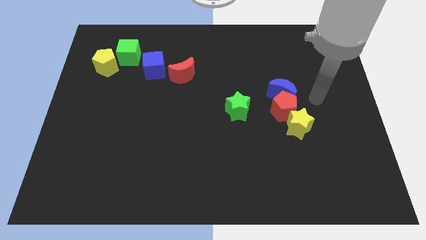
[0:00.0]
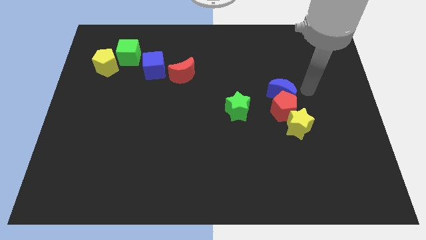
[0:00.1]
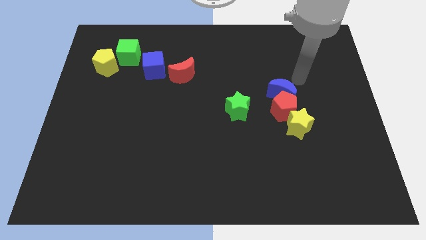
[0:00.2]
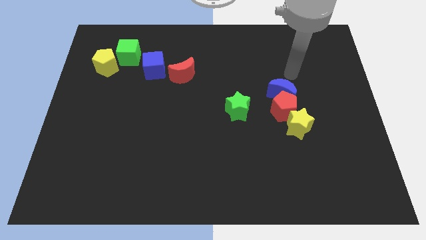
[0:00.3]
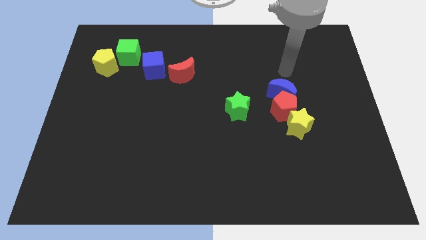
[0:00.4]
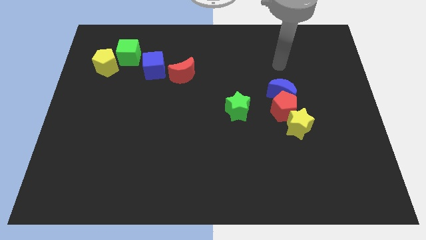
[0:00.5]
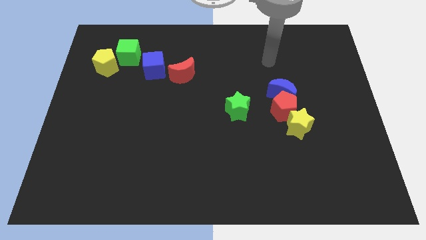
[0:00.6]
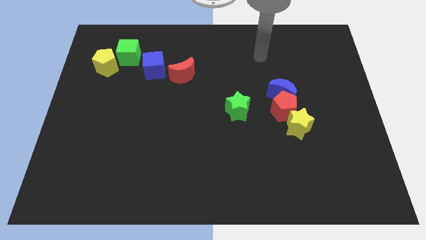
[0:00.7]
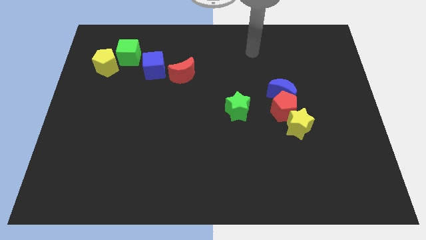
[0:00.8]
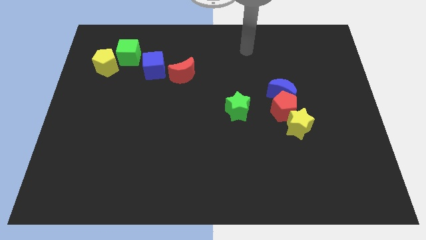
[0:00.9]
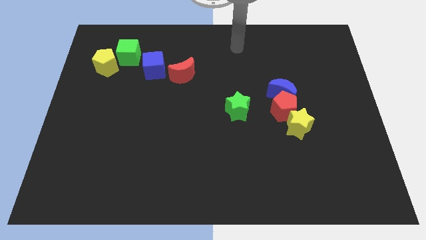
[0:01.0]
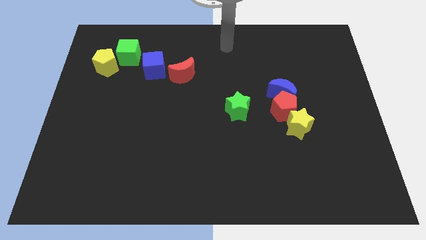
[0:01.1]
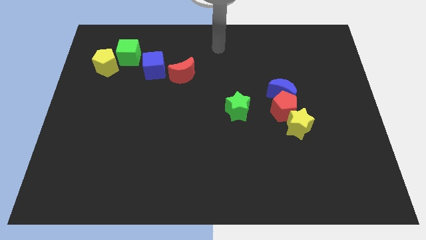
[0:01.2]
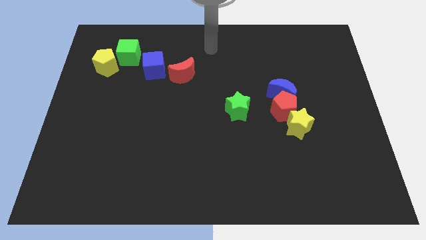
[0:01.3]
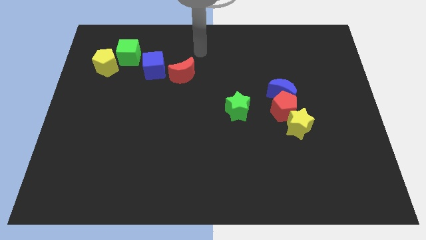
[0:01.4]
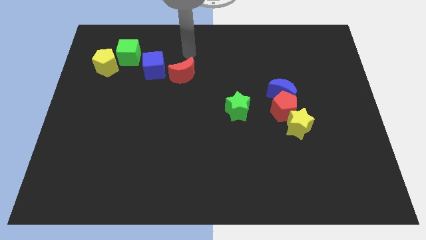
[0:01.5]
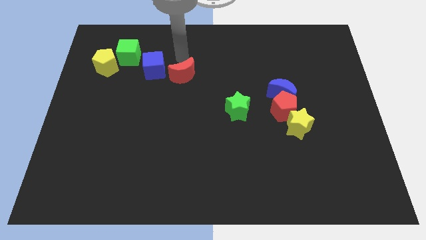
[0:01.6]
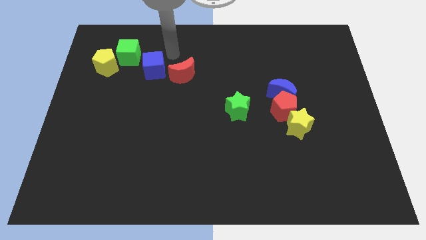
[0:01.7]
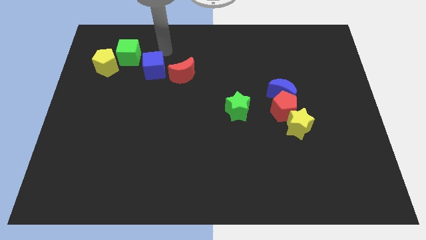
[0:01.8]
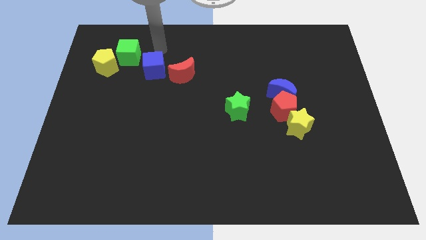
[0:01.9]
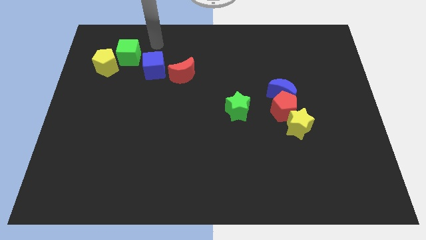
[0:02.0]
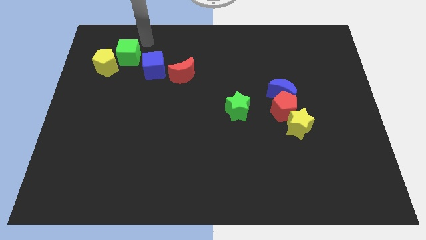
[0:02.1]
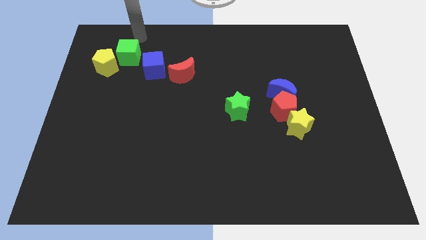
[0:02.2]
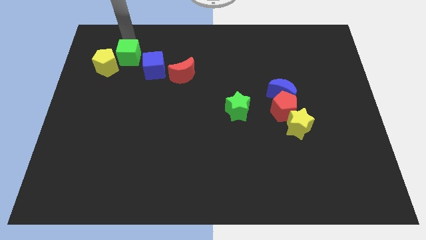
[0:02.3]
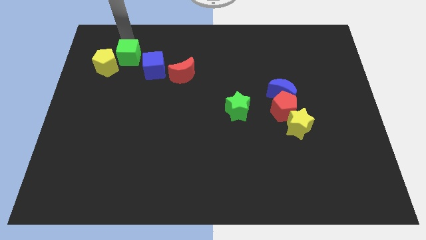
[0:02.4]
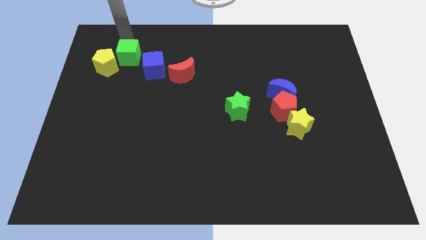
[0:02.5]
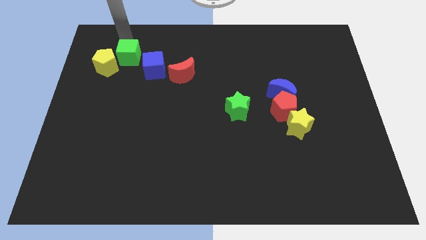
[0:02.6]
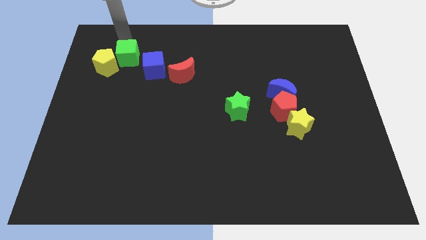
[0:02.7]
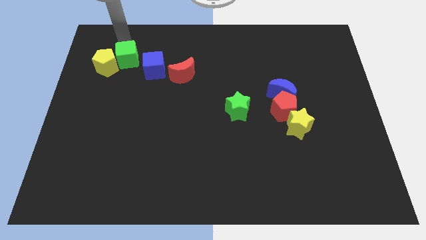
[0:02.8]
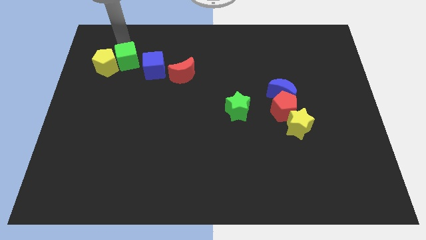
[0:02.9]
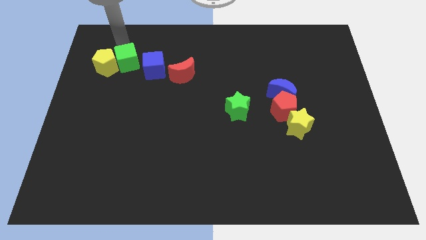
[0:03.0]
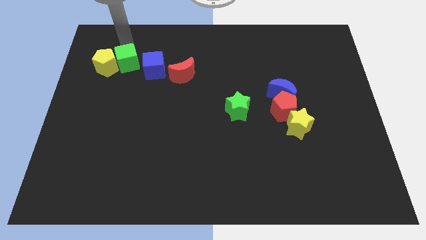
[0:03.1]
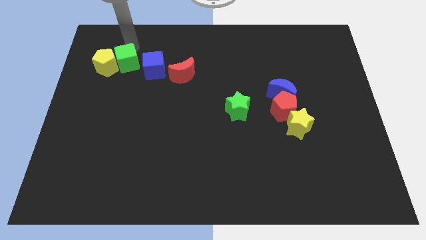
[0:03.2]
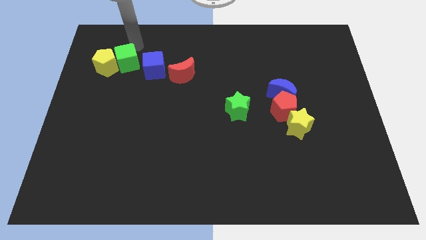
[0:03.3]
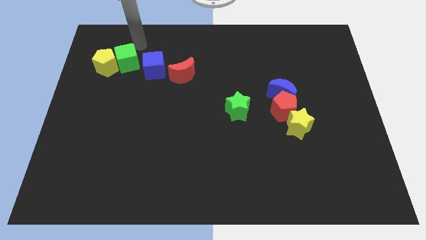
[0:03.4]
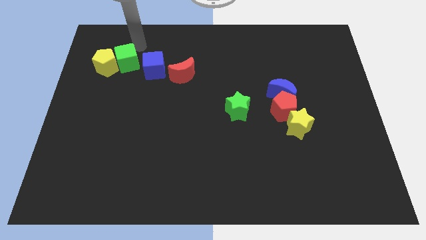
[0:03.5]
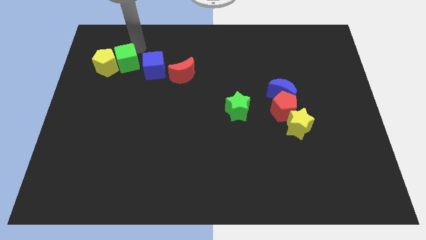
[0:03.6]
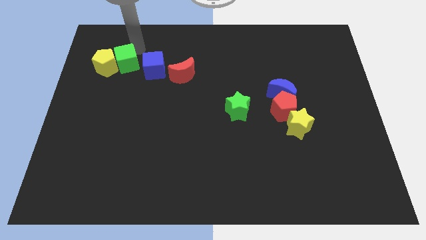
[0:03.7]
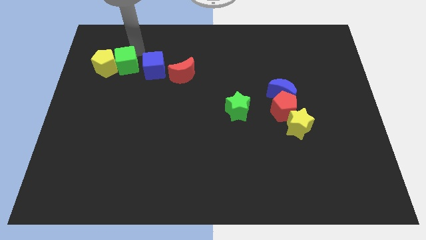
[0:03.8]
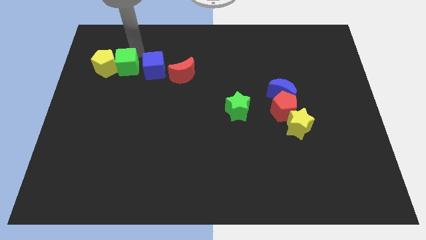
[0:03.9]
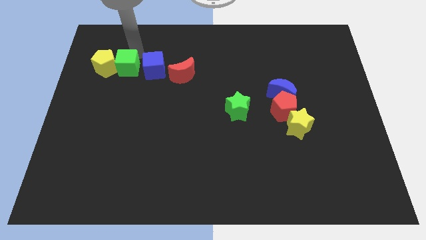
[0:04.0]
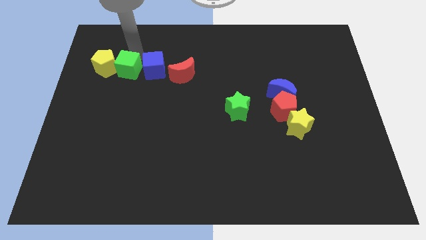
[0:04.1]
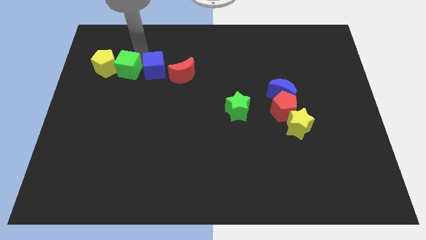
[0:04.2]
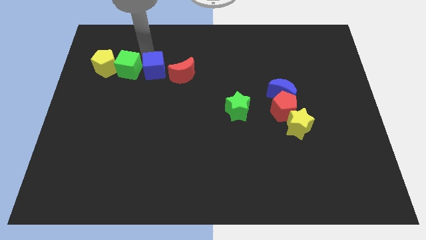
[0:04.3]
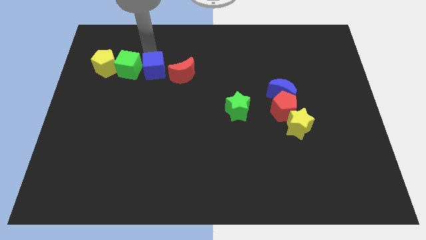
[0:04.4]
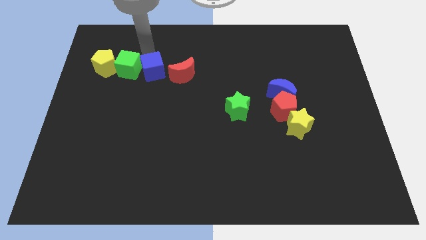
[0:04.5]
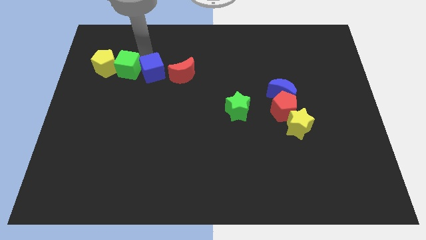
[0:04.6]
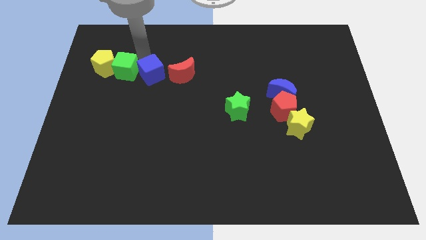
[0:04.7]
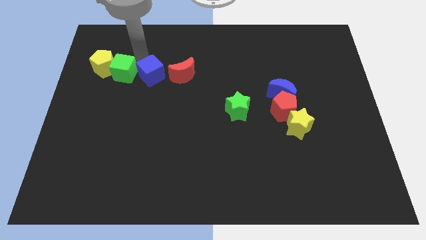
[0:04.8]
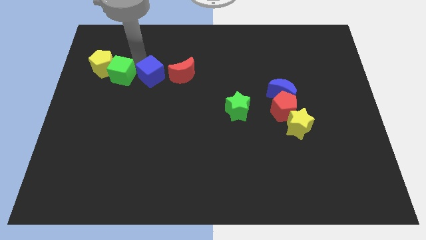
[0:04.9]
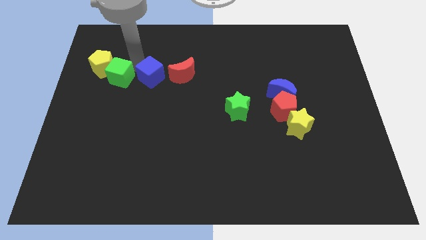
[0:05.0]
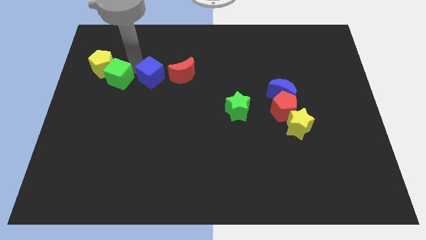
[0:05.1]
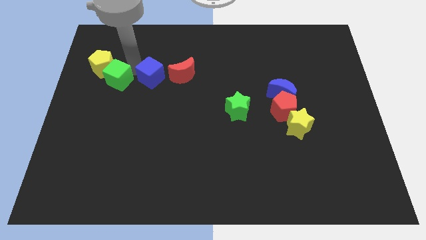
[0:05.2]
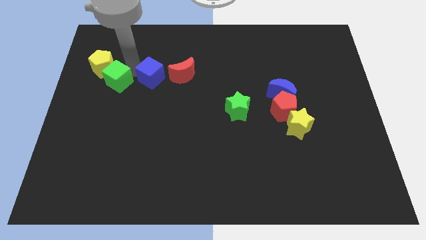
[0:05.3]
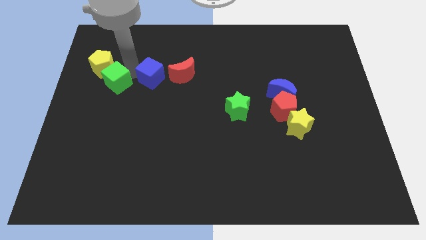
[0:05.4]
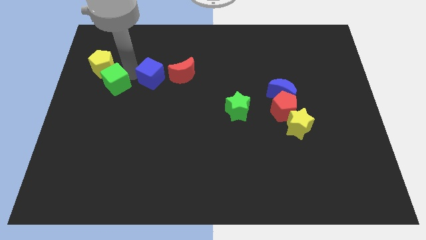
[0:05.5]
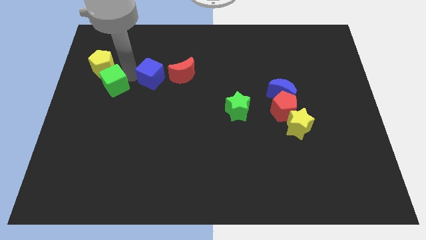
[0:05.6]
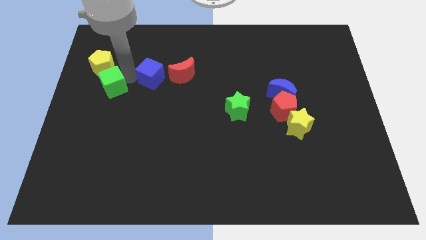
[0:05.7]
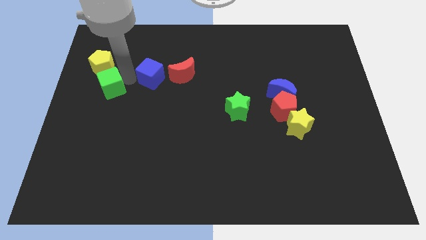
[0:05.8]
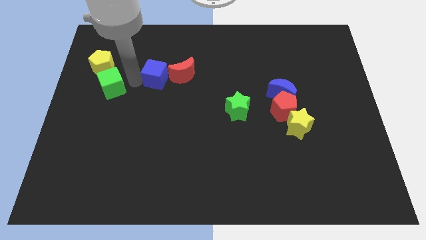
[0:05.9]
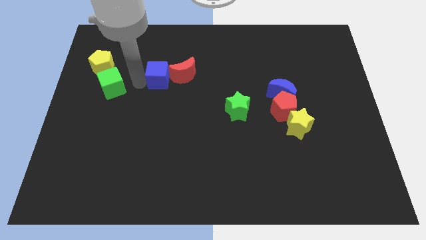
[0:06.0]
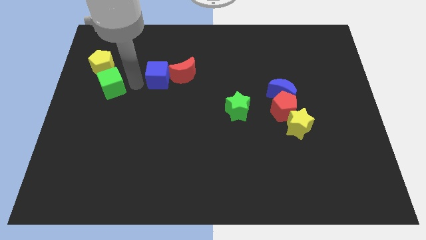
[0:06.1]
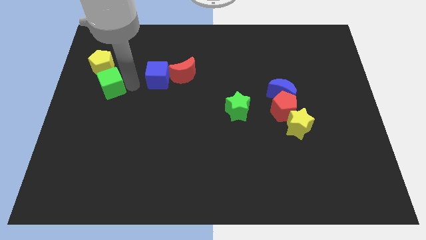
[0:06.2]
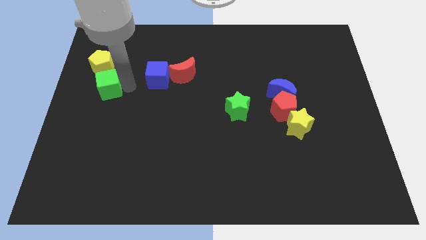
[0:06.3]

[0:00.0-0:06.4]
move the green cube to the center left

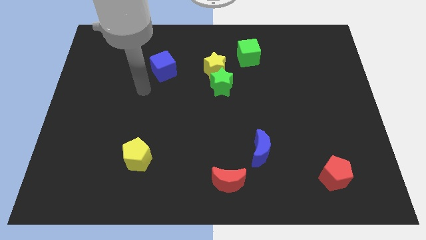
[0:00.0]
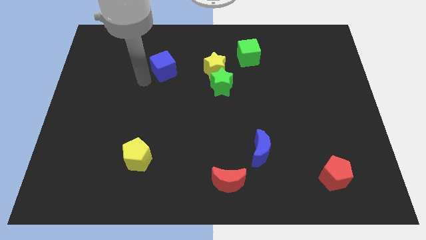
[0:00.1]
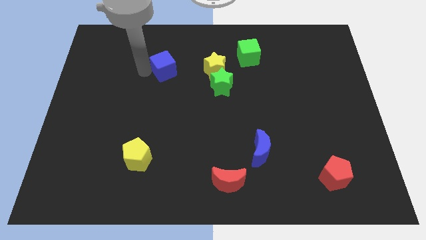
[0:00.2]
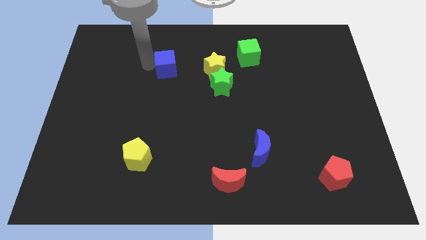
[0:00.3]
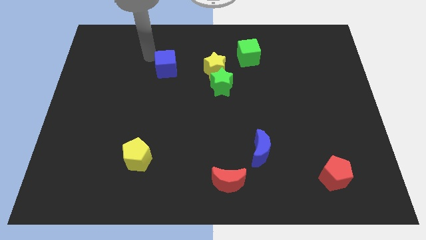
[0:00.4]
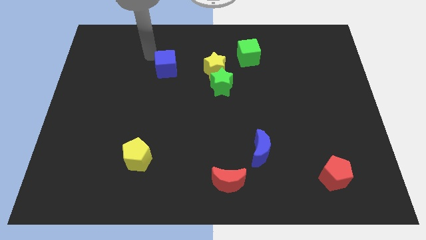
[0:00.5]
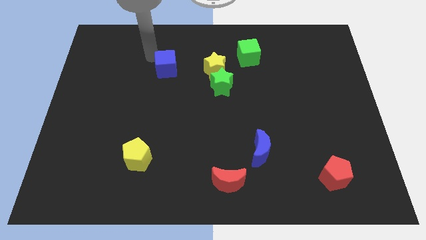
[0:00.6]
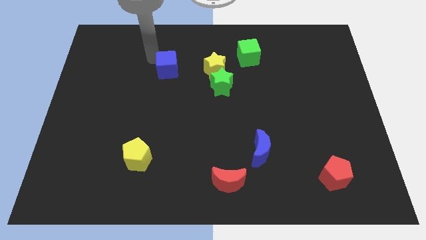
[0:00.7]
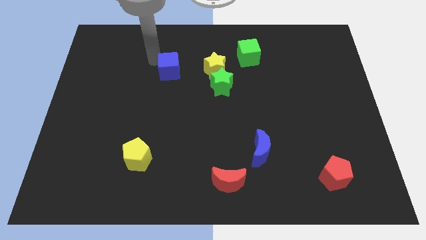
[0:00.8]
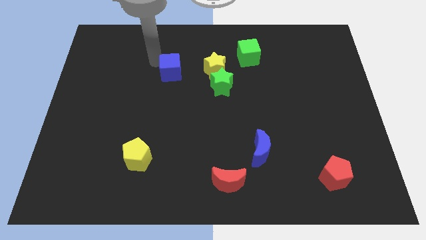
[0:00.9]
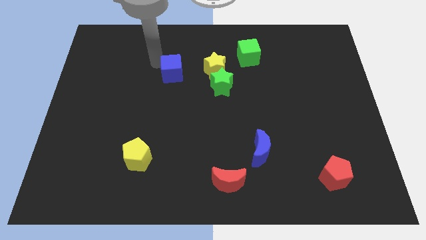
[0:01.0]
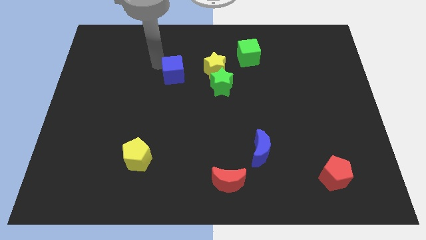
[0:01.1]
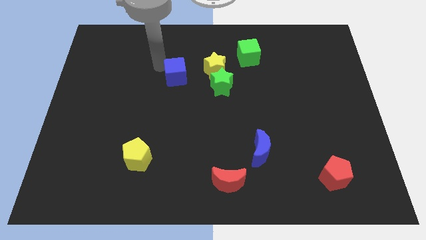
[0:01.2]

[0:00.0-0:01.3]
push the blue cube to the middle of the board
